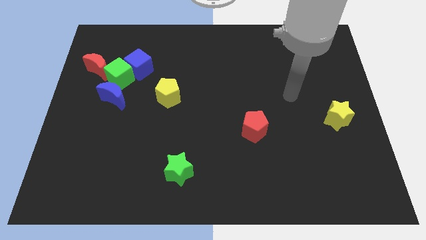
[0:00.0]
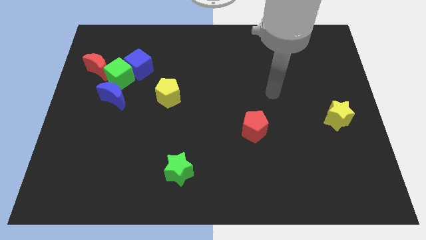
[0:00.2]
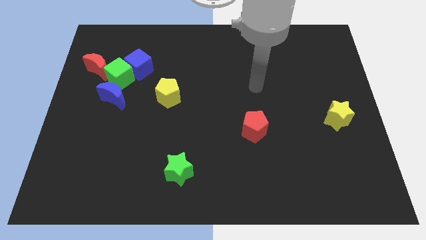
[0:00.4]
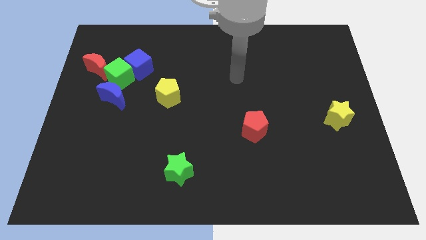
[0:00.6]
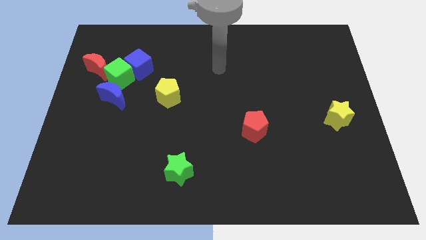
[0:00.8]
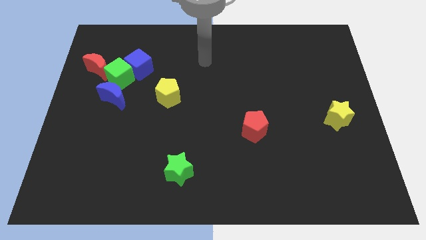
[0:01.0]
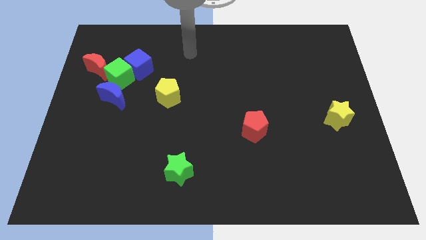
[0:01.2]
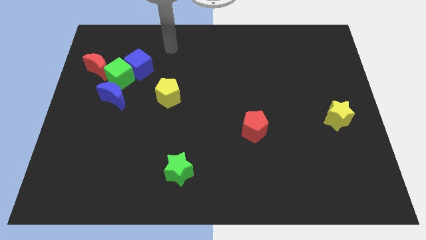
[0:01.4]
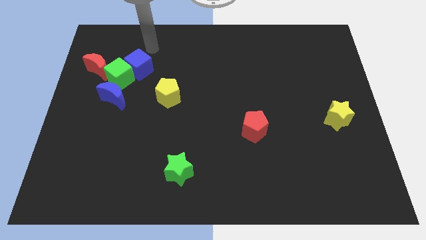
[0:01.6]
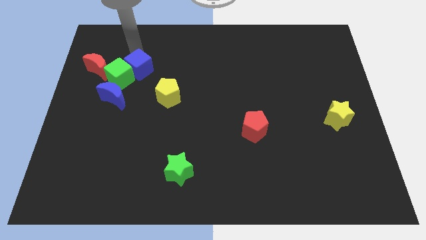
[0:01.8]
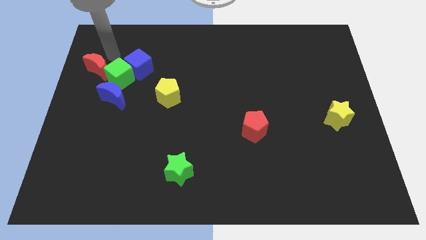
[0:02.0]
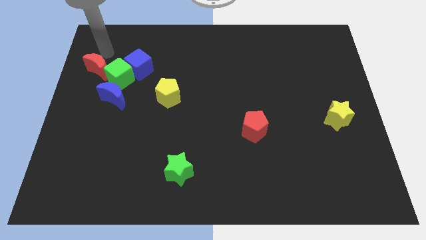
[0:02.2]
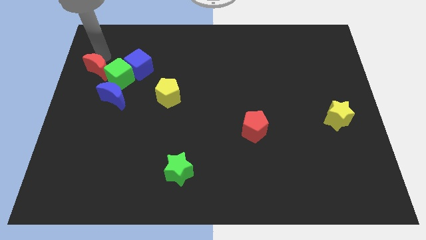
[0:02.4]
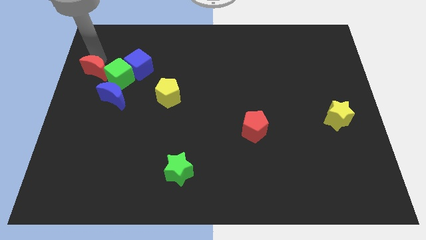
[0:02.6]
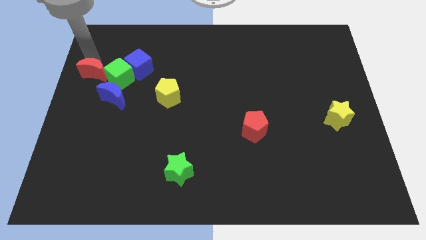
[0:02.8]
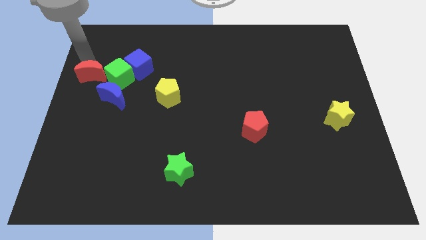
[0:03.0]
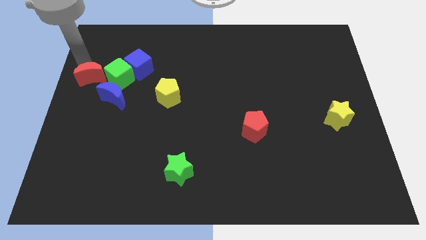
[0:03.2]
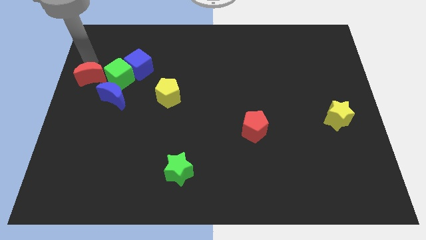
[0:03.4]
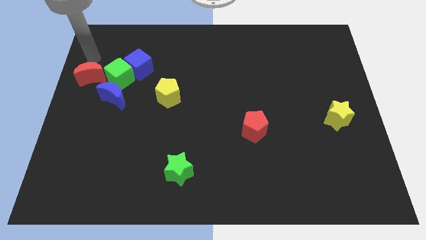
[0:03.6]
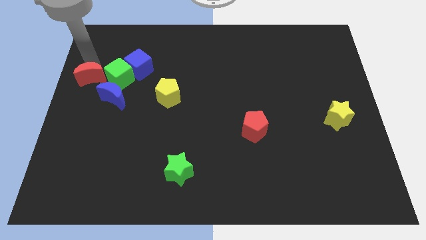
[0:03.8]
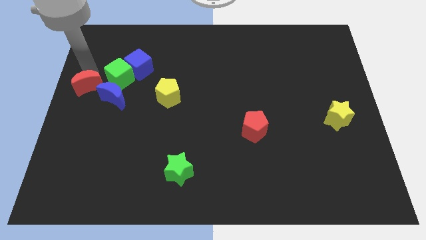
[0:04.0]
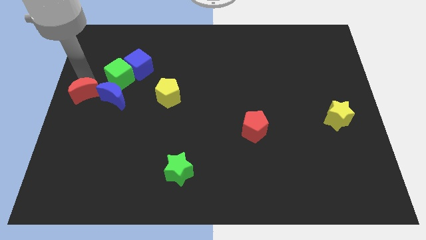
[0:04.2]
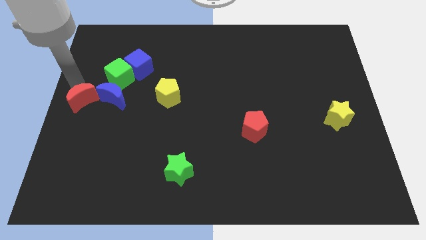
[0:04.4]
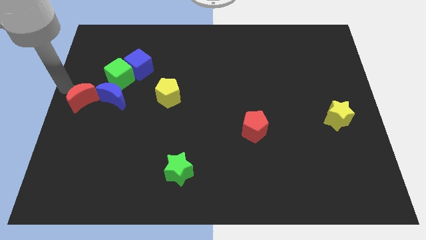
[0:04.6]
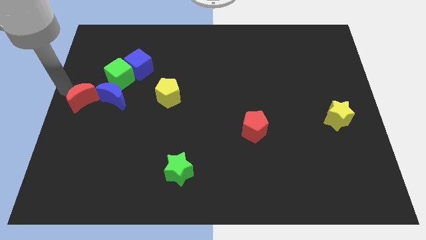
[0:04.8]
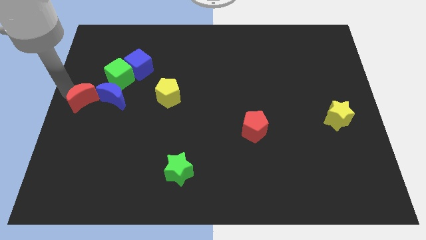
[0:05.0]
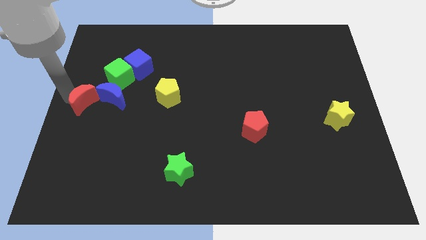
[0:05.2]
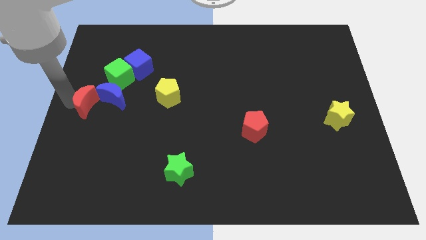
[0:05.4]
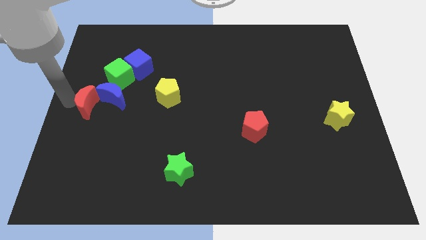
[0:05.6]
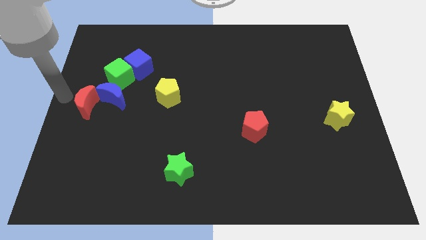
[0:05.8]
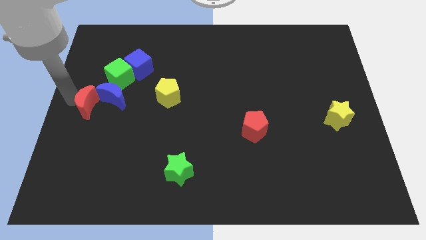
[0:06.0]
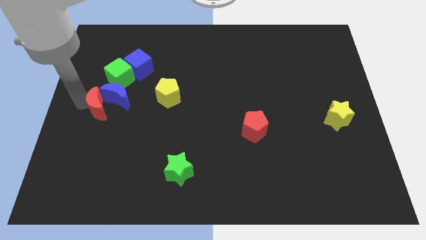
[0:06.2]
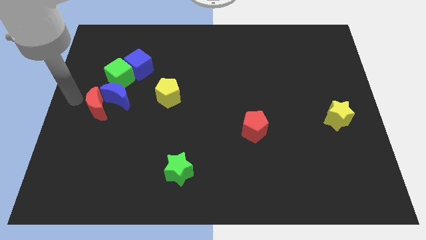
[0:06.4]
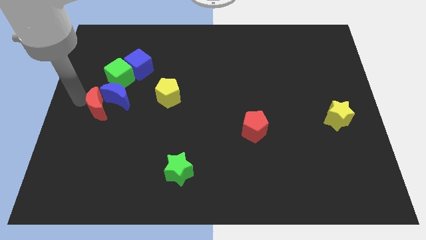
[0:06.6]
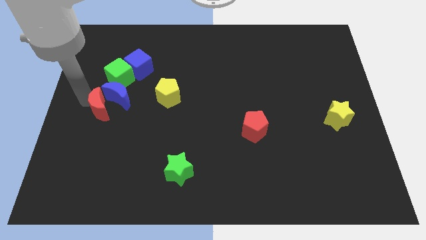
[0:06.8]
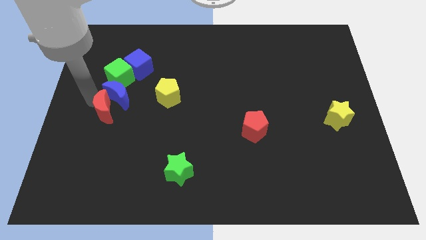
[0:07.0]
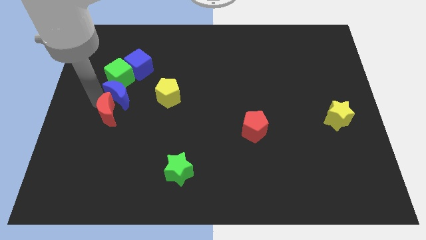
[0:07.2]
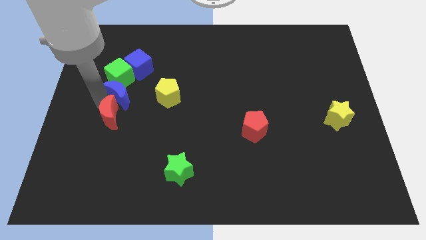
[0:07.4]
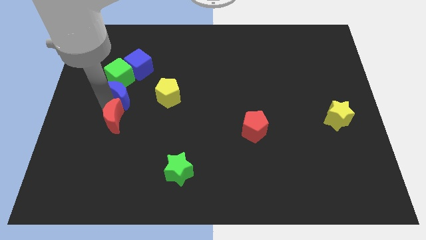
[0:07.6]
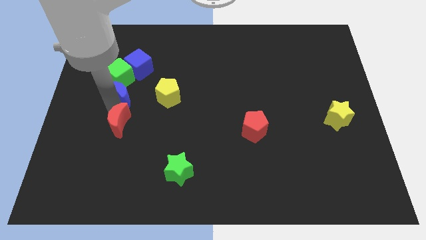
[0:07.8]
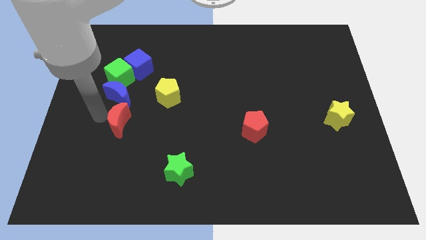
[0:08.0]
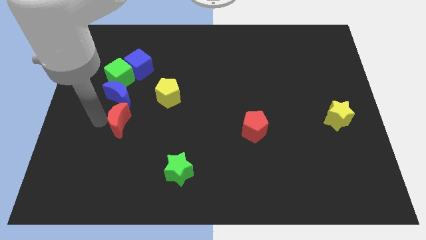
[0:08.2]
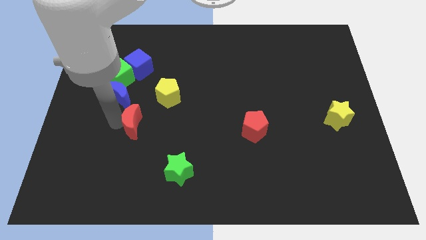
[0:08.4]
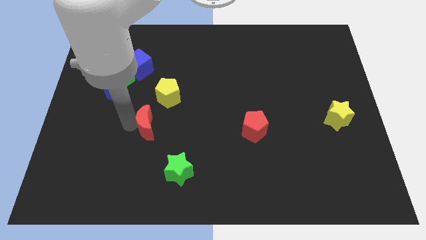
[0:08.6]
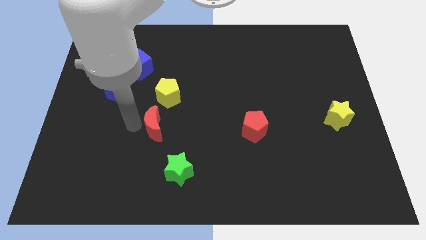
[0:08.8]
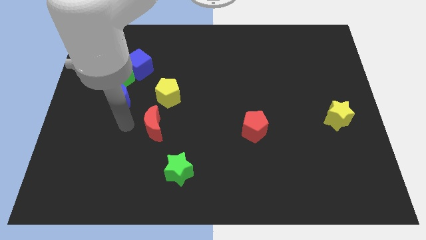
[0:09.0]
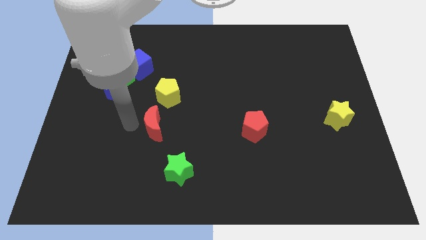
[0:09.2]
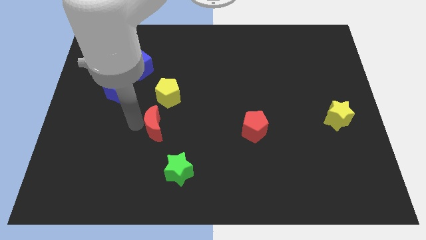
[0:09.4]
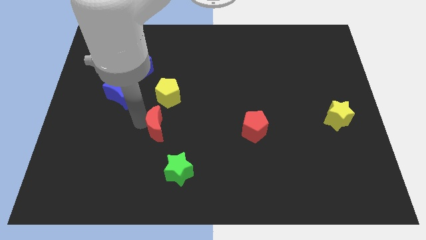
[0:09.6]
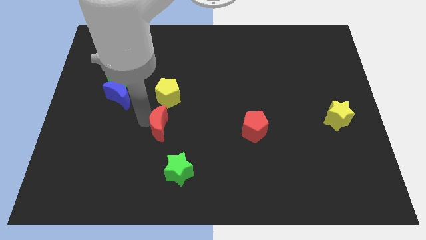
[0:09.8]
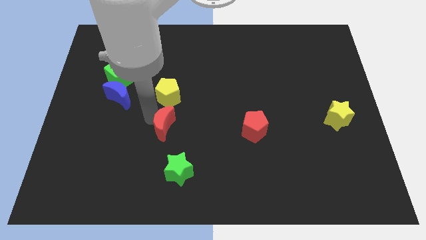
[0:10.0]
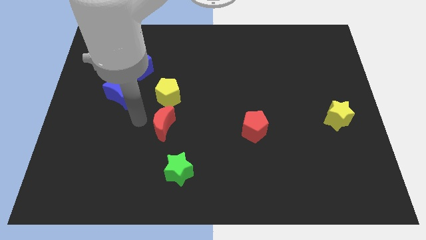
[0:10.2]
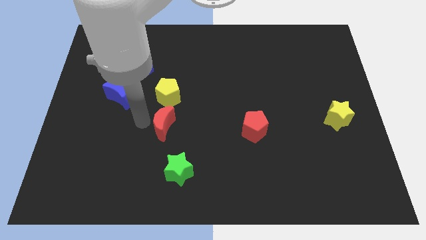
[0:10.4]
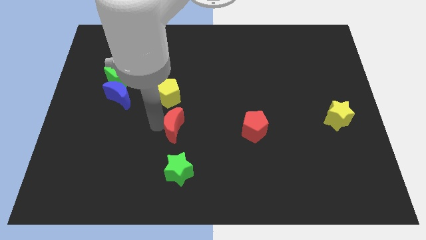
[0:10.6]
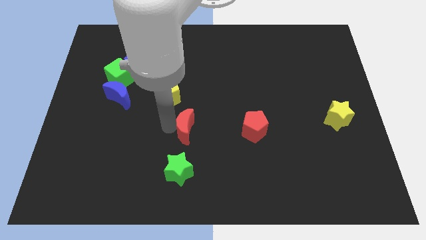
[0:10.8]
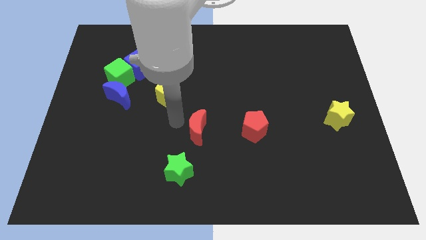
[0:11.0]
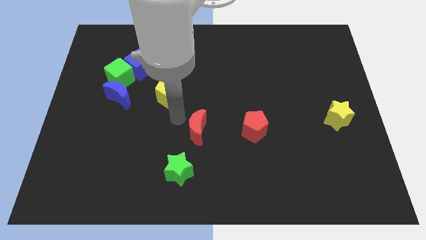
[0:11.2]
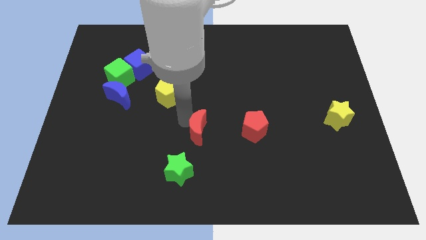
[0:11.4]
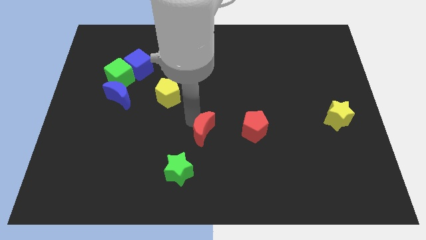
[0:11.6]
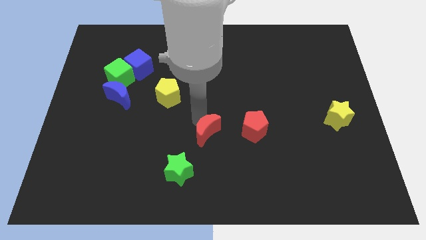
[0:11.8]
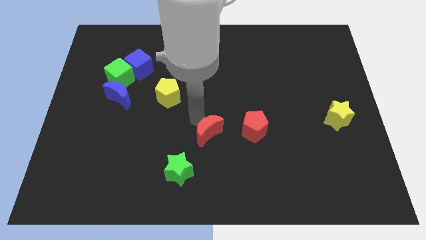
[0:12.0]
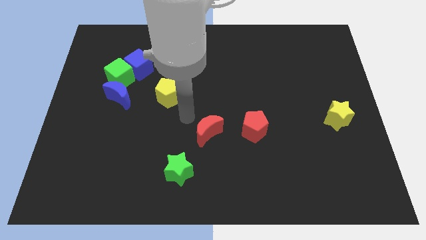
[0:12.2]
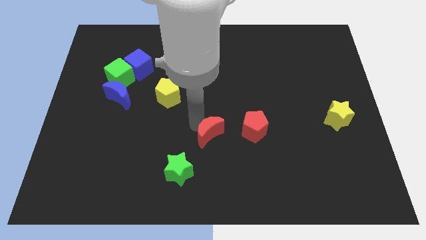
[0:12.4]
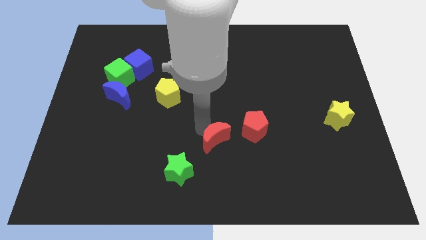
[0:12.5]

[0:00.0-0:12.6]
push the red moon to the bottom left side of the red pentagon
